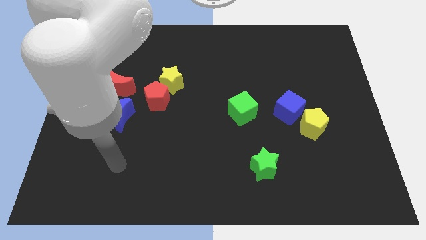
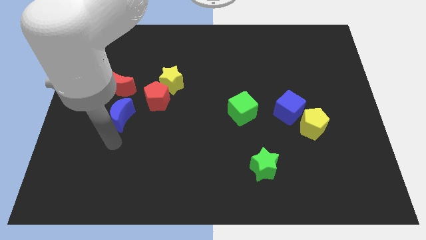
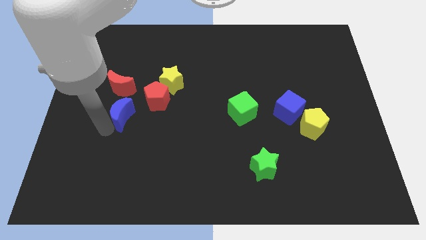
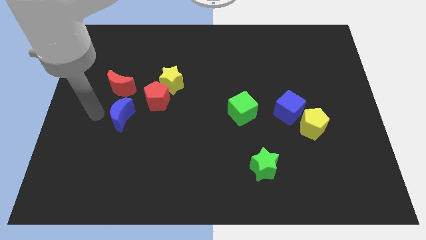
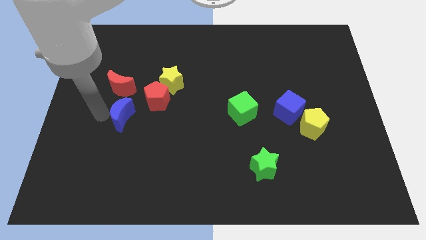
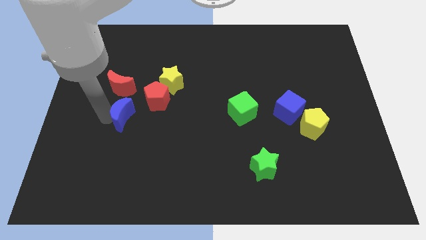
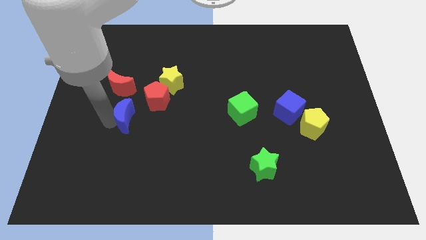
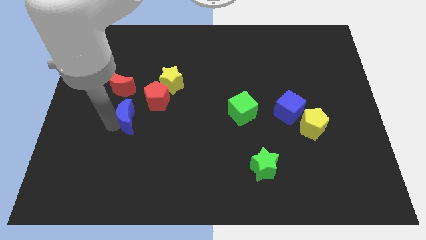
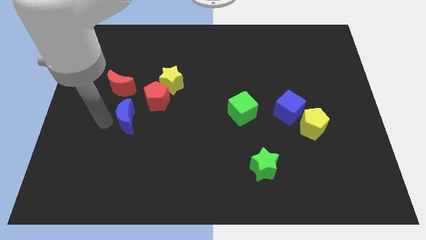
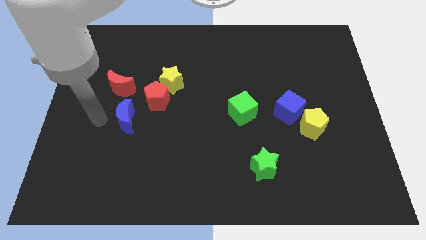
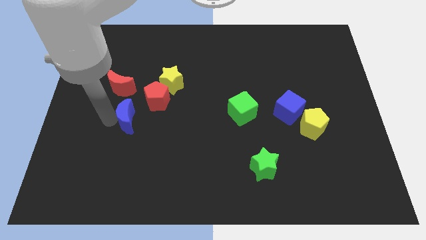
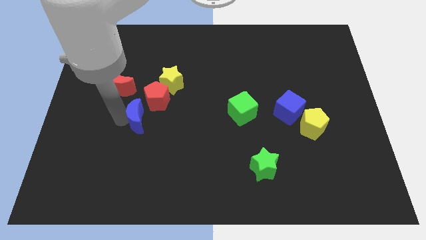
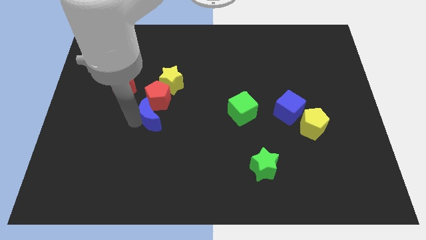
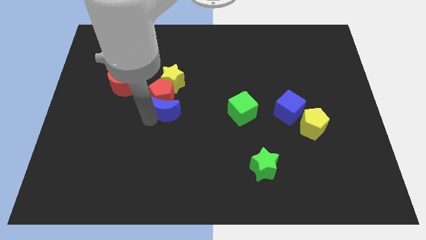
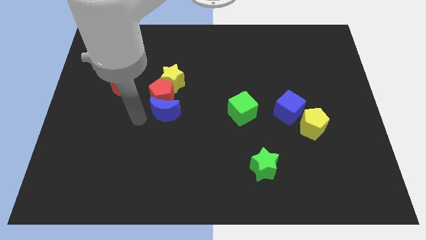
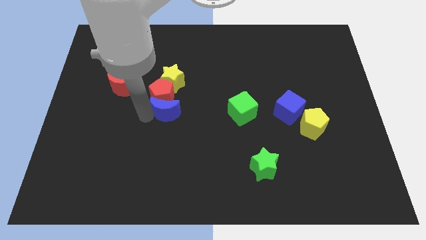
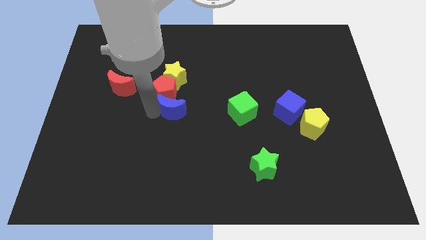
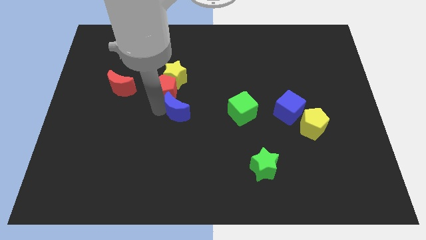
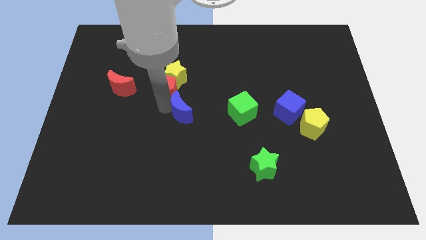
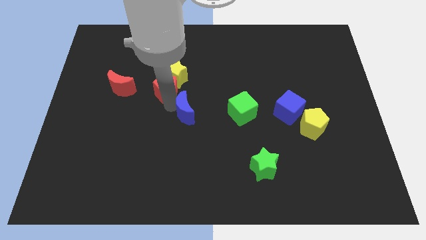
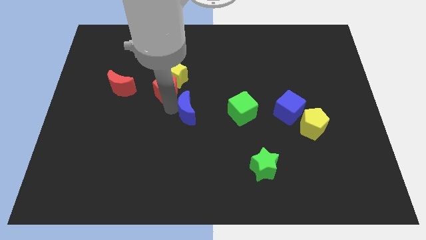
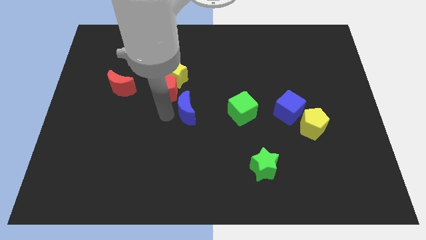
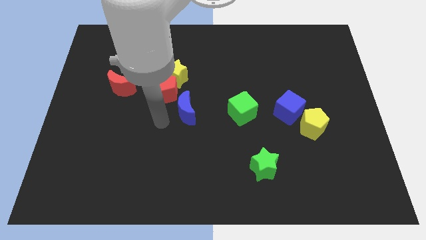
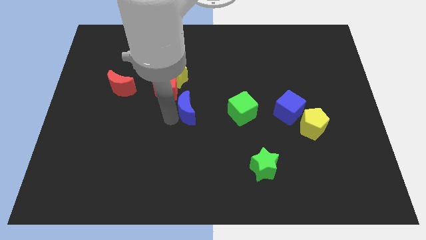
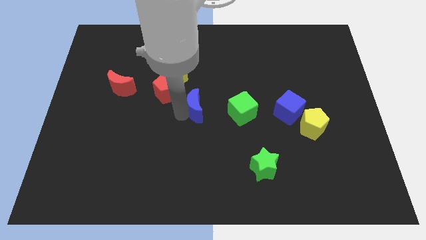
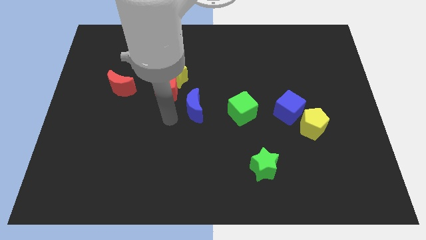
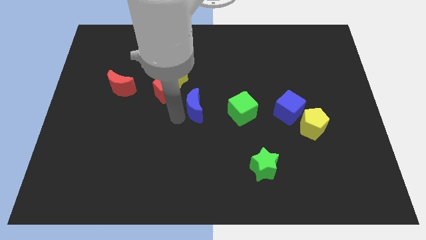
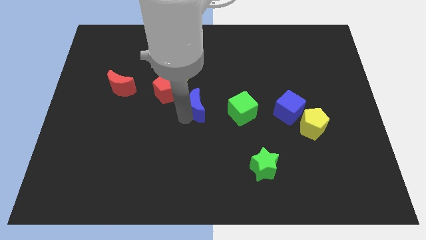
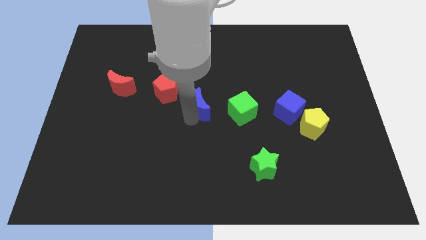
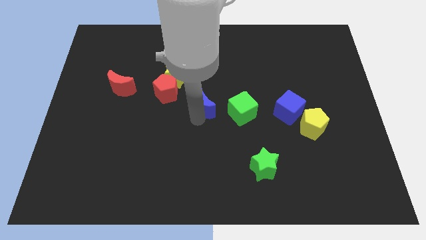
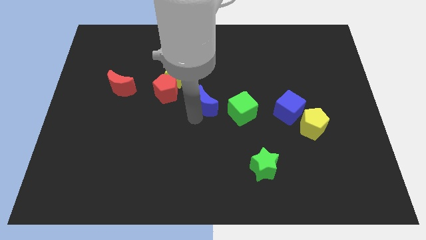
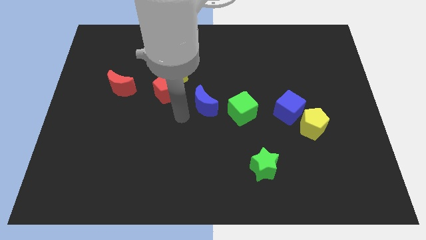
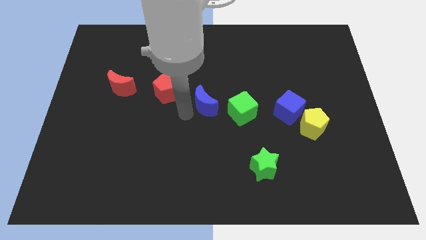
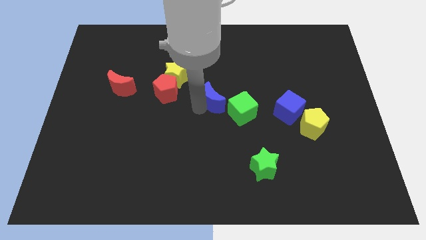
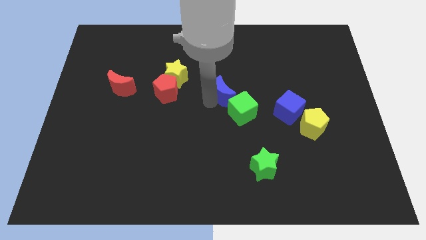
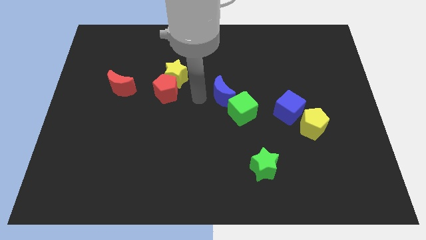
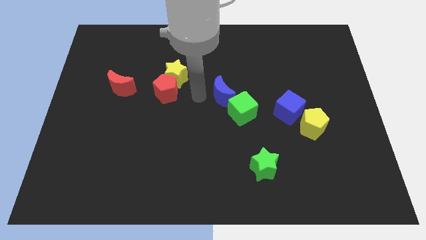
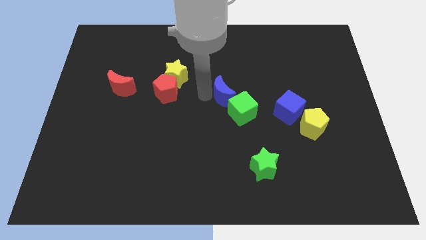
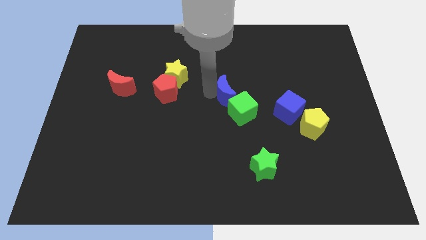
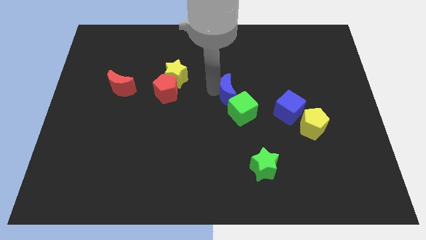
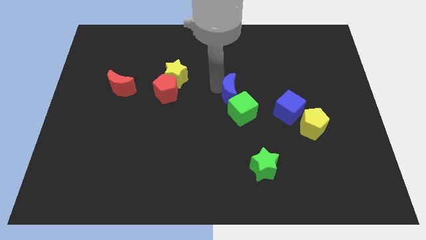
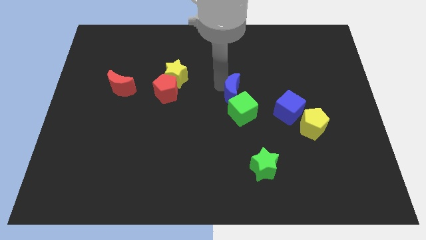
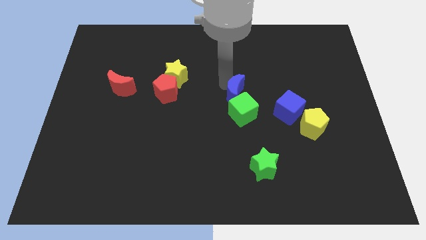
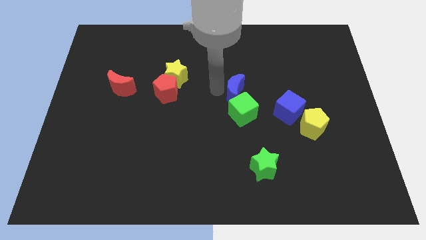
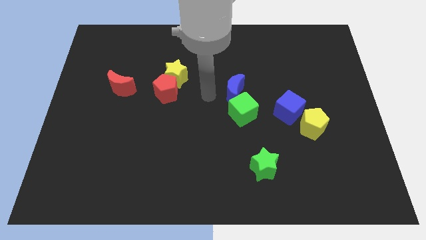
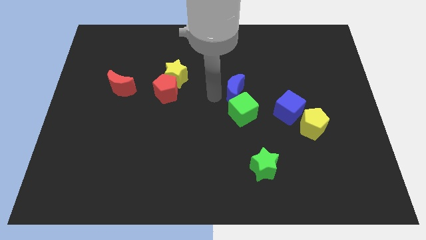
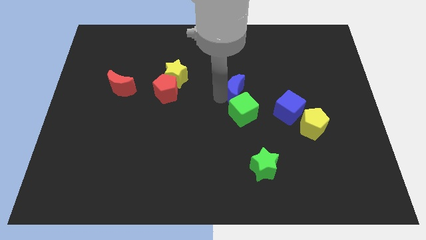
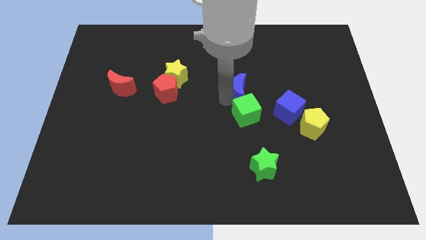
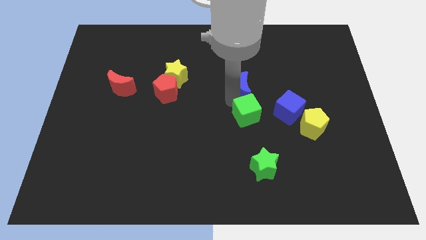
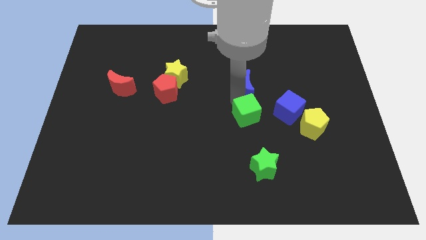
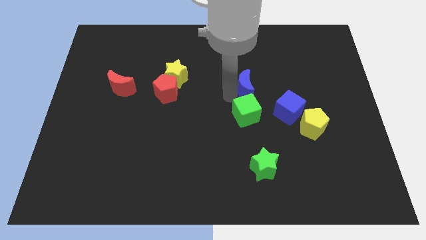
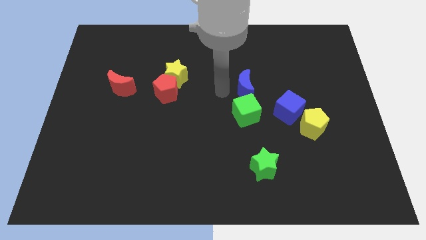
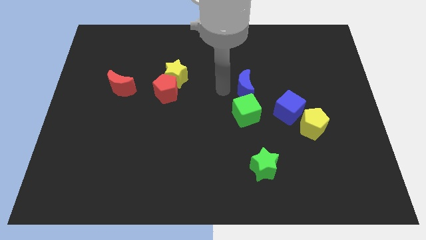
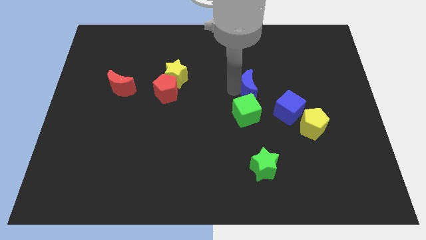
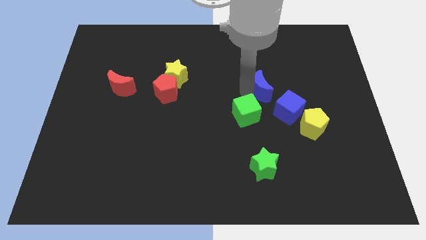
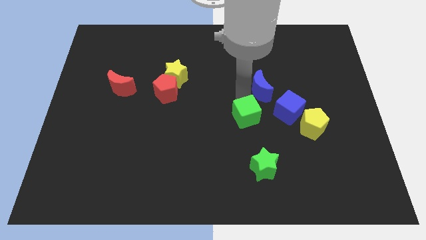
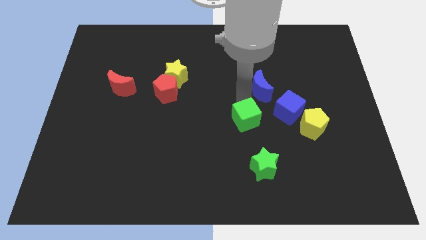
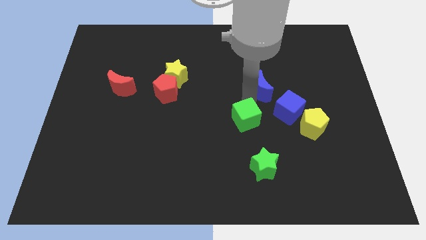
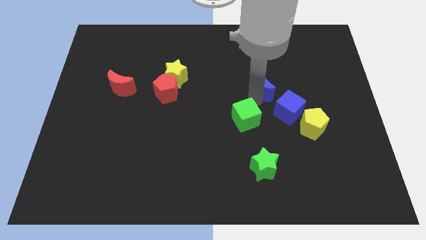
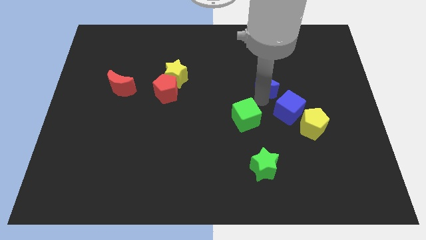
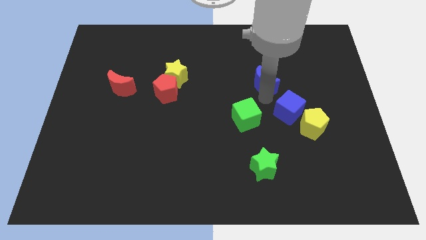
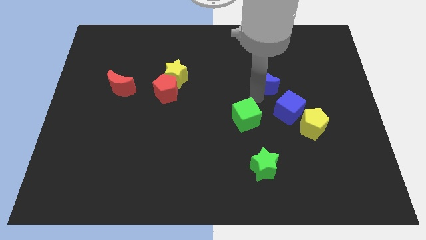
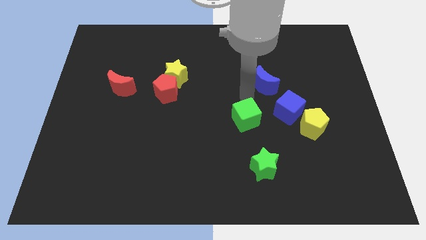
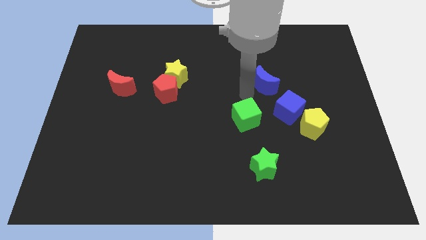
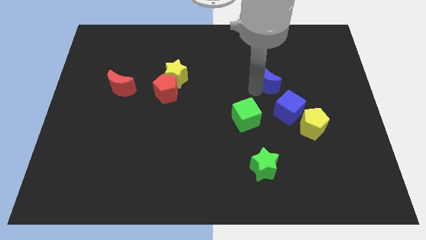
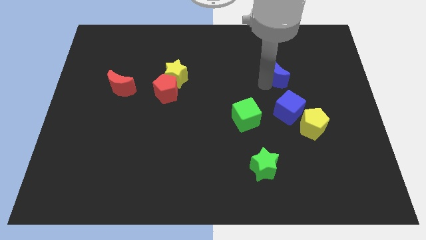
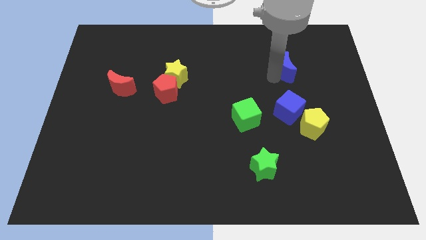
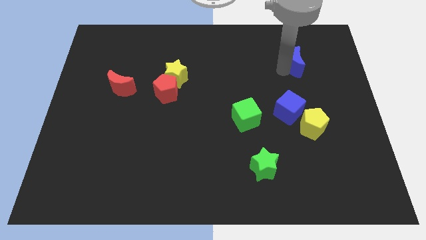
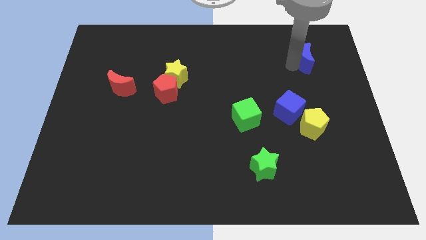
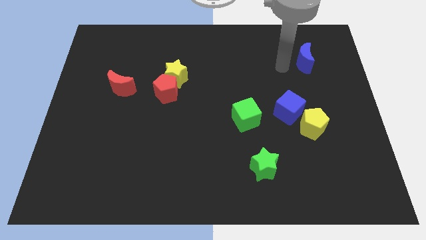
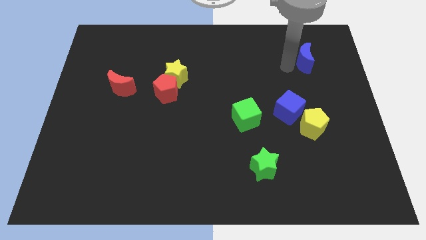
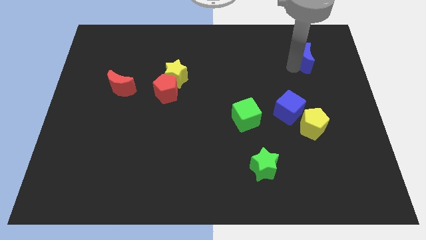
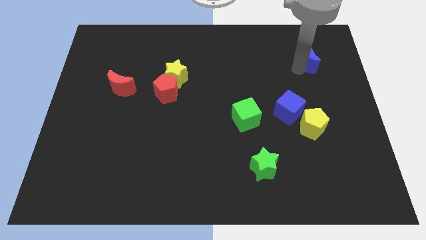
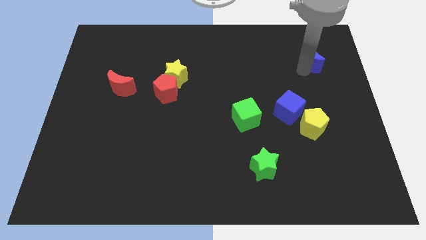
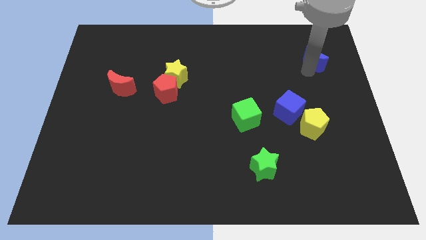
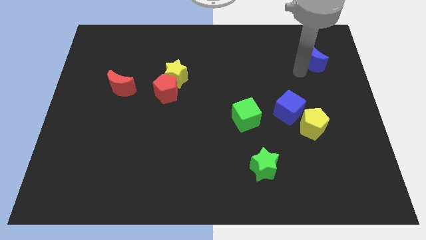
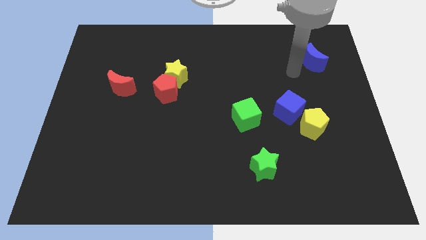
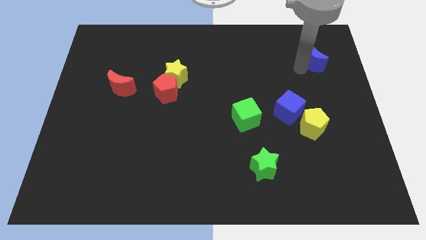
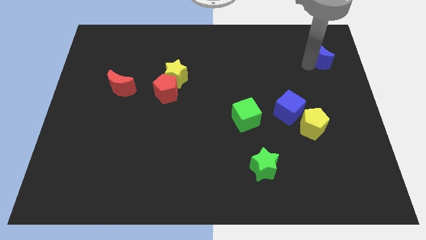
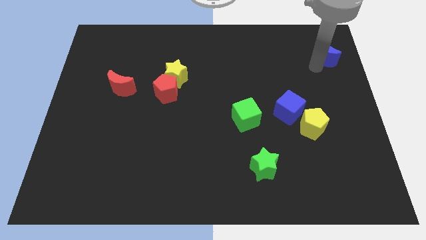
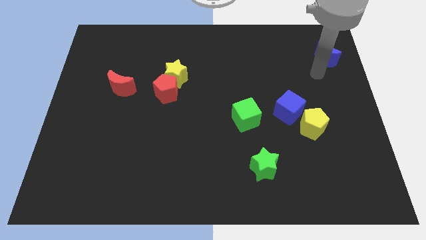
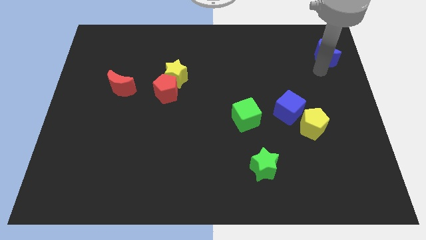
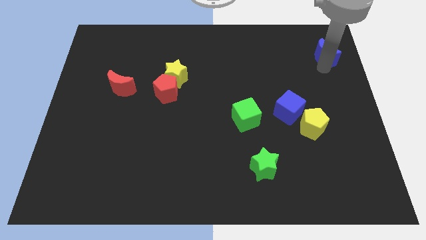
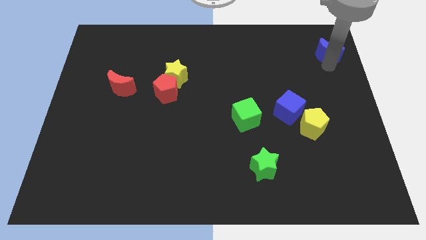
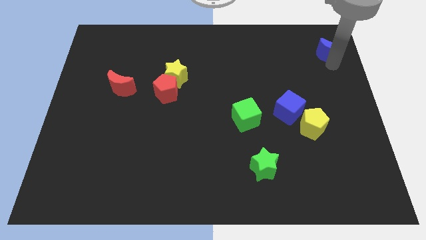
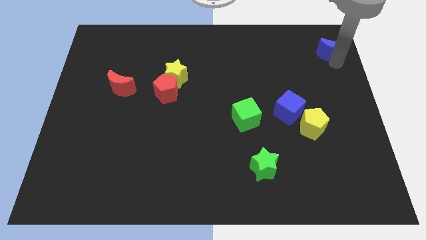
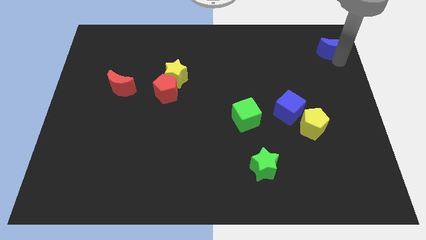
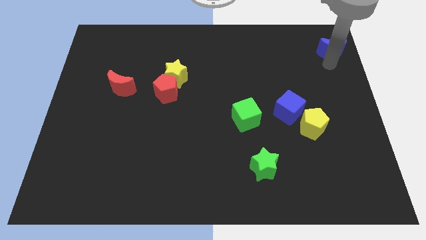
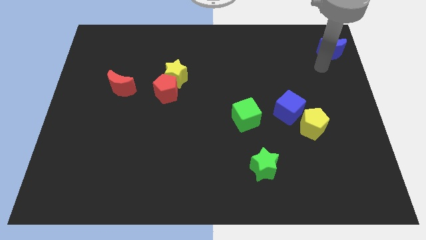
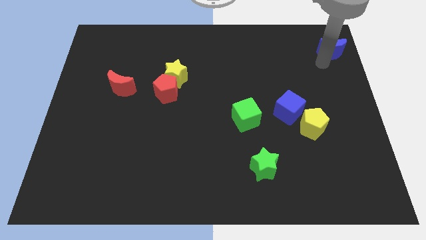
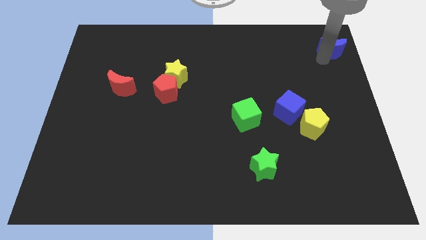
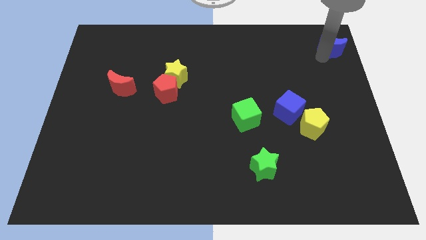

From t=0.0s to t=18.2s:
put the blue moon to the top right
